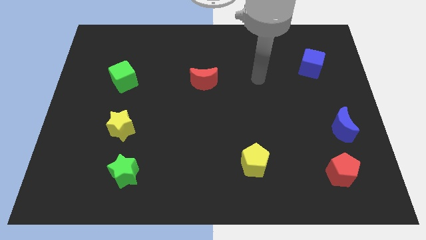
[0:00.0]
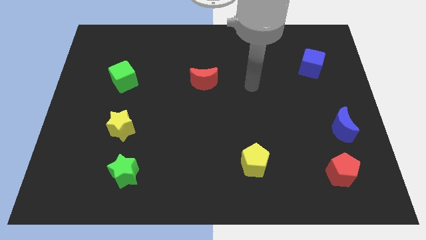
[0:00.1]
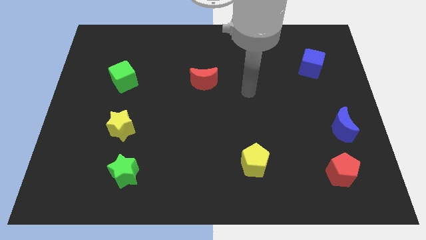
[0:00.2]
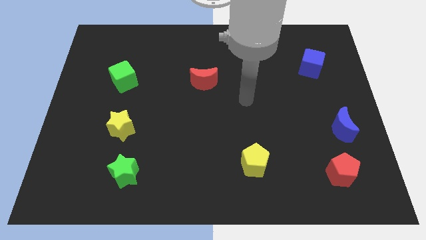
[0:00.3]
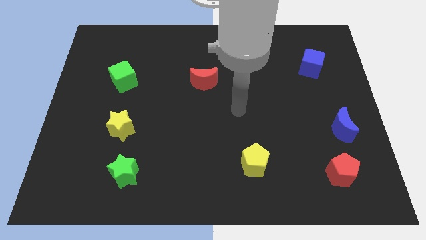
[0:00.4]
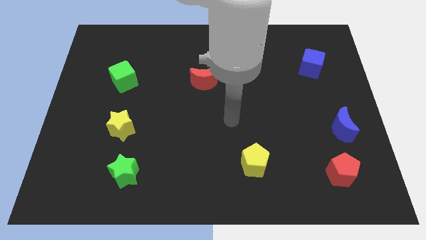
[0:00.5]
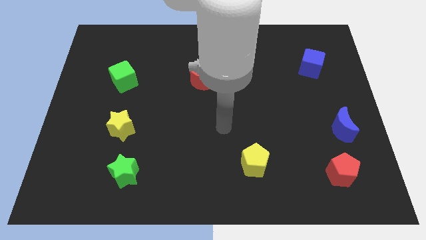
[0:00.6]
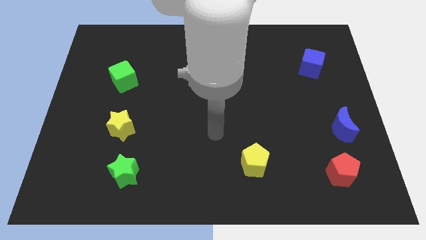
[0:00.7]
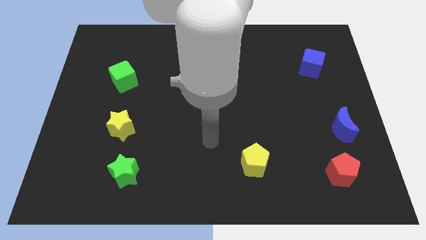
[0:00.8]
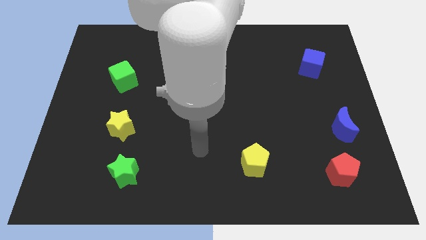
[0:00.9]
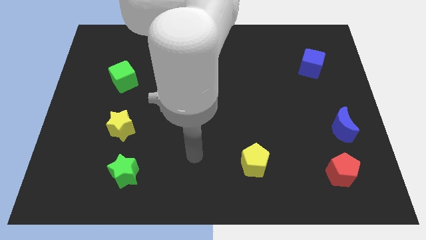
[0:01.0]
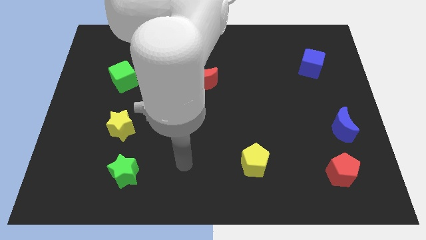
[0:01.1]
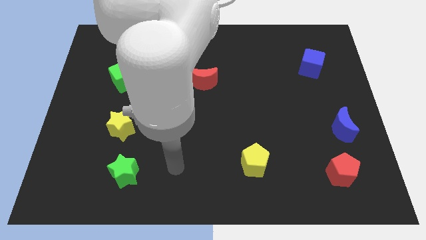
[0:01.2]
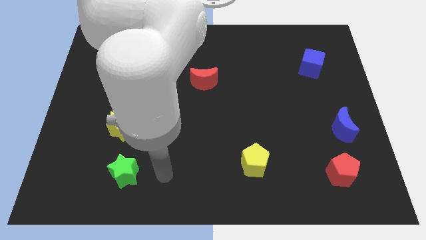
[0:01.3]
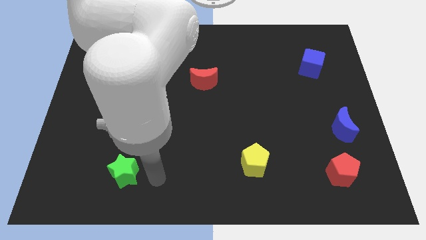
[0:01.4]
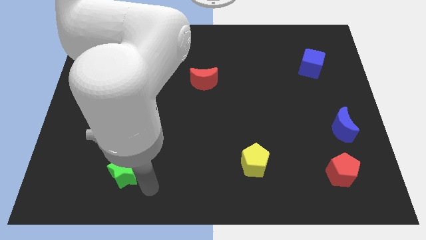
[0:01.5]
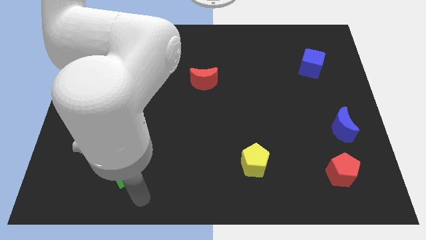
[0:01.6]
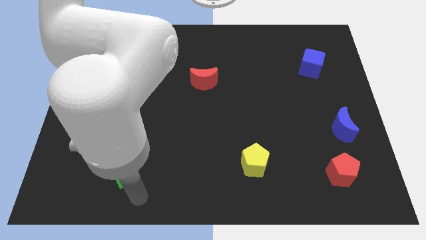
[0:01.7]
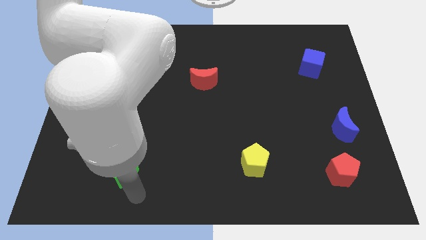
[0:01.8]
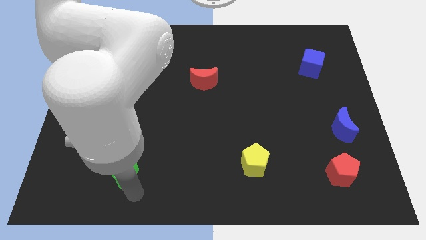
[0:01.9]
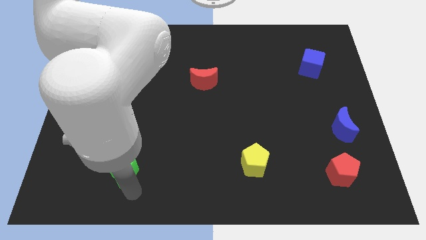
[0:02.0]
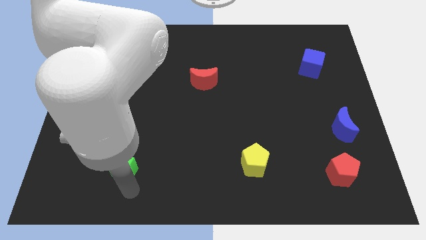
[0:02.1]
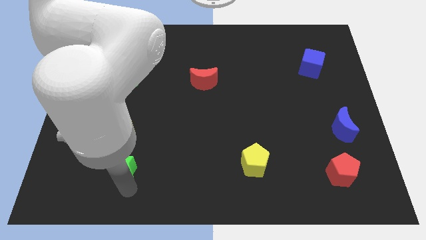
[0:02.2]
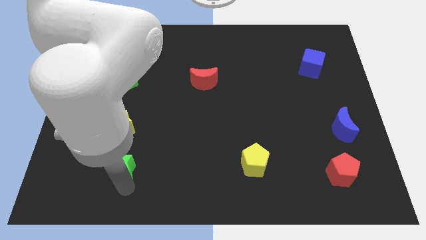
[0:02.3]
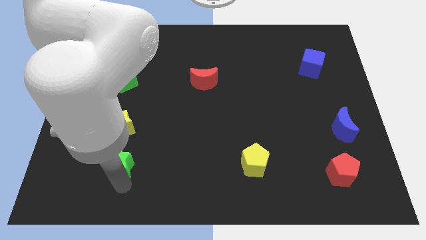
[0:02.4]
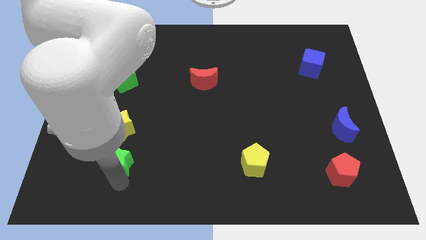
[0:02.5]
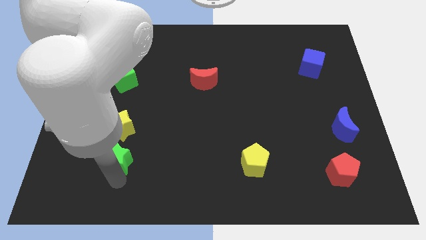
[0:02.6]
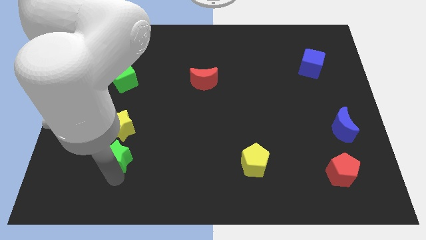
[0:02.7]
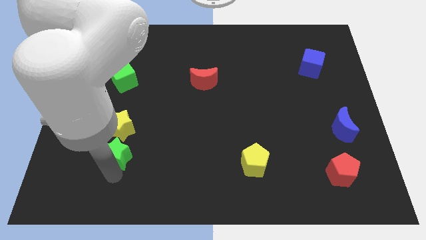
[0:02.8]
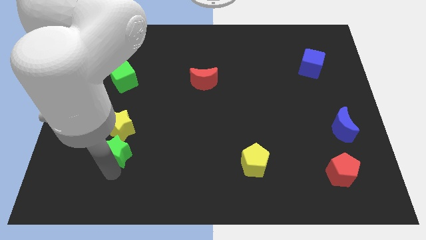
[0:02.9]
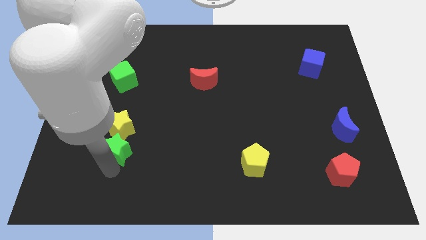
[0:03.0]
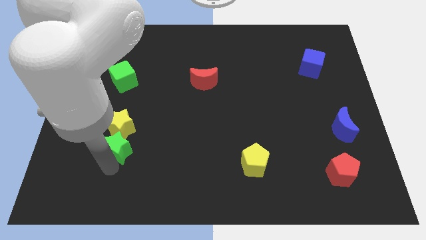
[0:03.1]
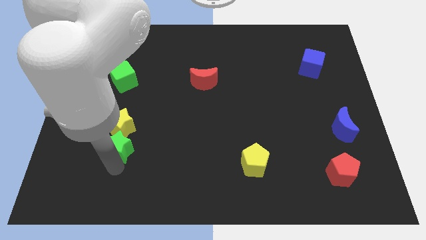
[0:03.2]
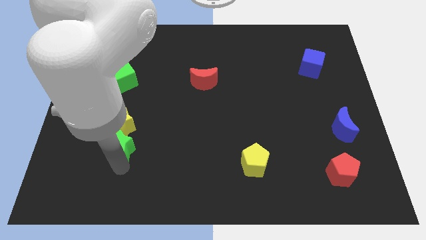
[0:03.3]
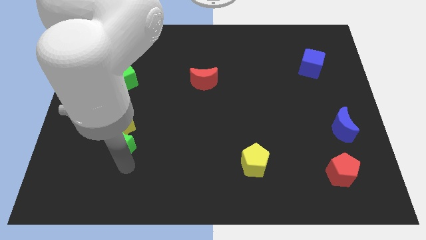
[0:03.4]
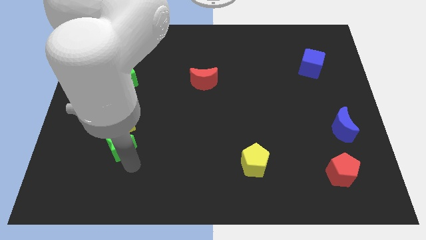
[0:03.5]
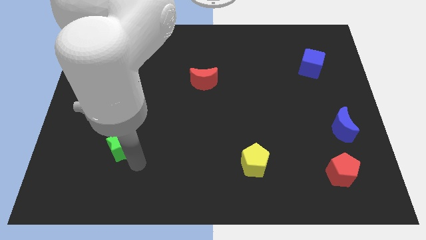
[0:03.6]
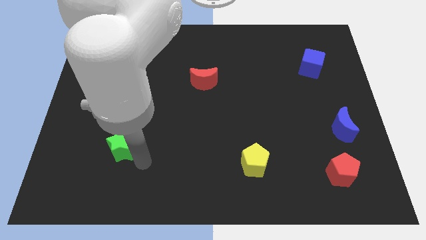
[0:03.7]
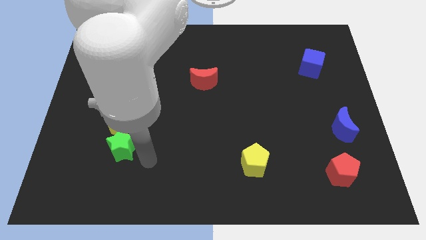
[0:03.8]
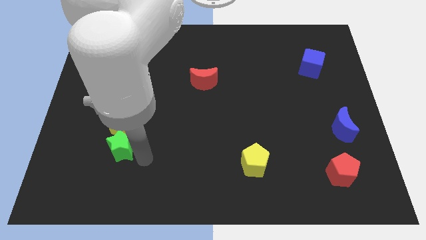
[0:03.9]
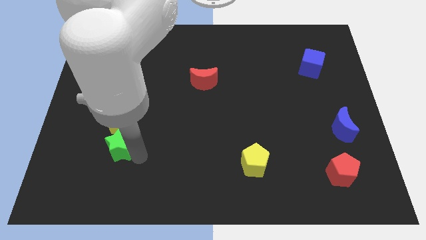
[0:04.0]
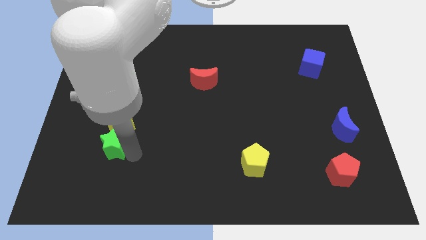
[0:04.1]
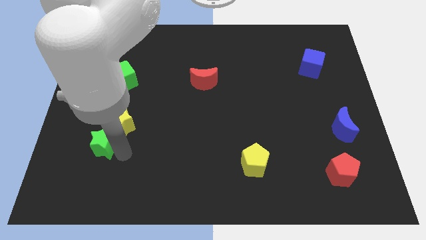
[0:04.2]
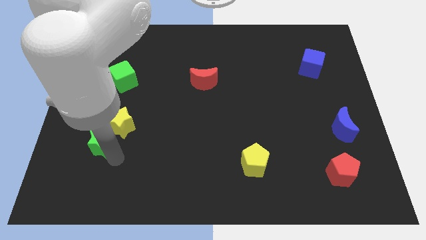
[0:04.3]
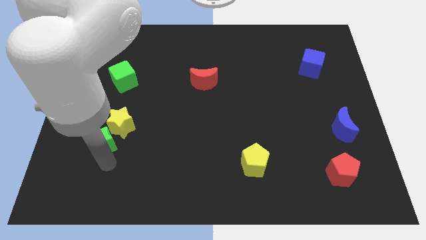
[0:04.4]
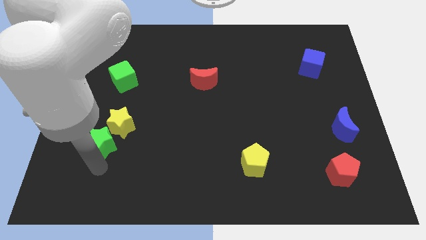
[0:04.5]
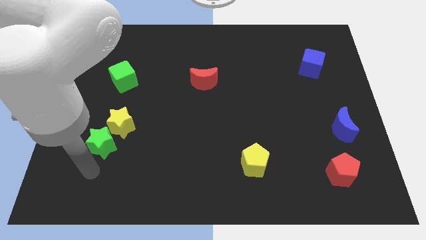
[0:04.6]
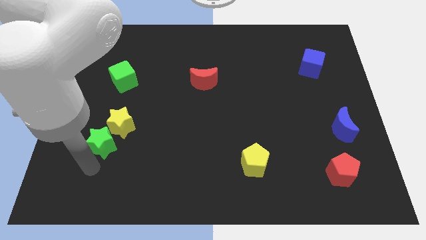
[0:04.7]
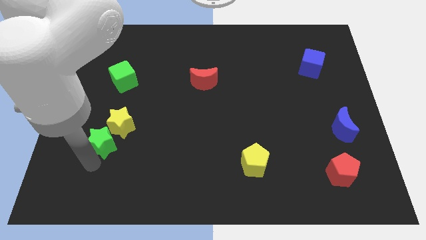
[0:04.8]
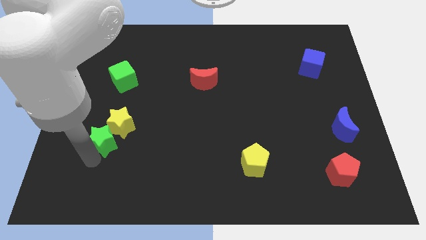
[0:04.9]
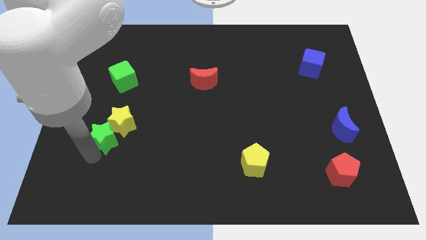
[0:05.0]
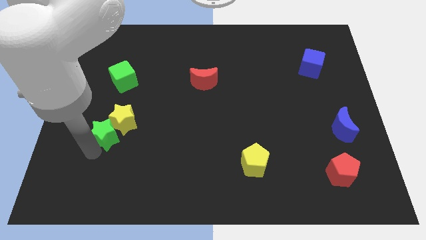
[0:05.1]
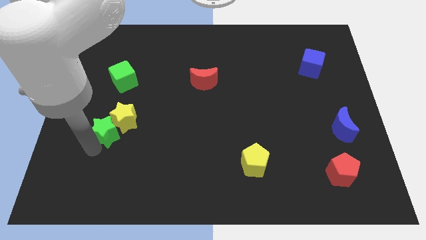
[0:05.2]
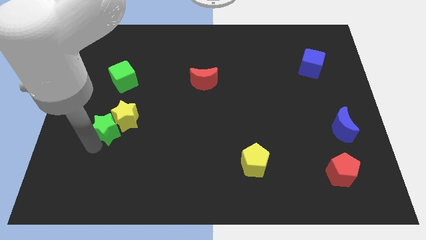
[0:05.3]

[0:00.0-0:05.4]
slide the green star below the green cube

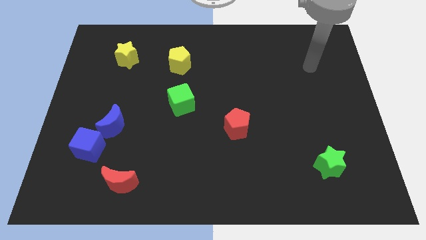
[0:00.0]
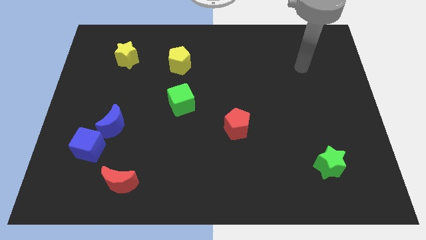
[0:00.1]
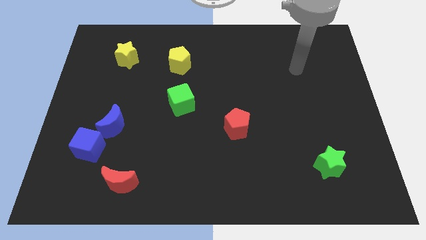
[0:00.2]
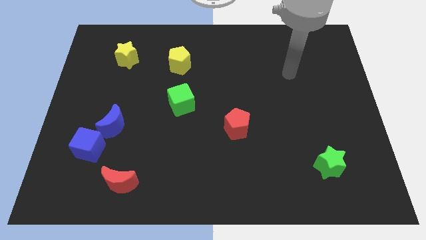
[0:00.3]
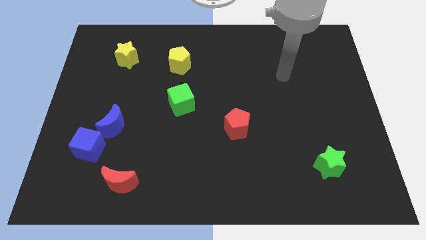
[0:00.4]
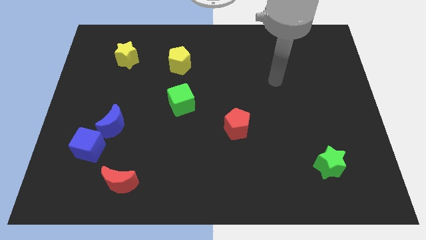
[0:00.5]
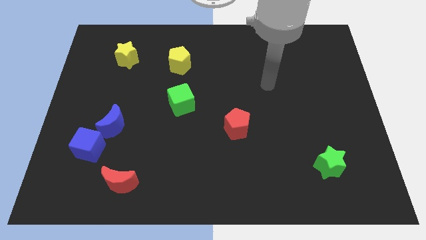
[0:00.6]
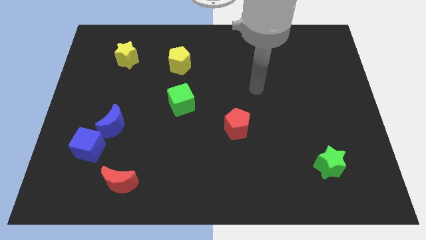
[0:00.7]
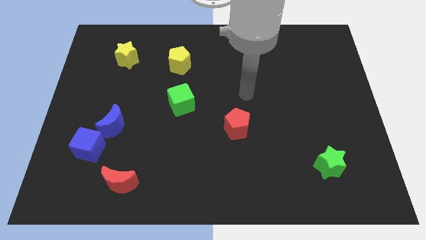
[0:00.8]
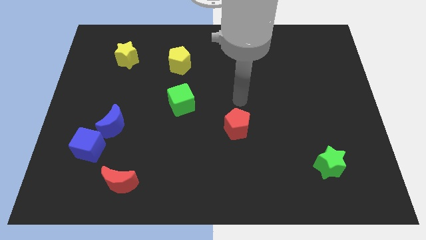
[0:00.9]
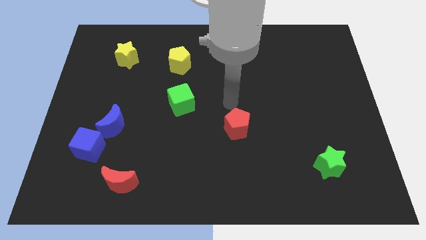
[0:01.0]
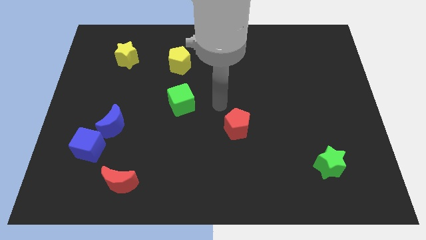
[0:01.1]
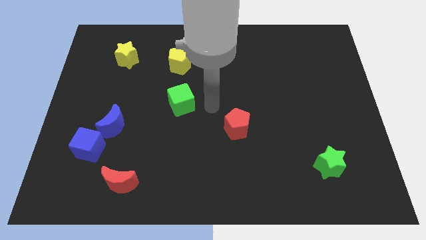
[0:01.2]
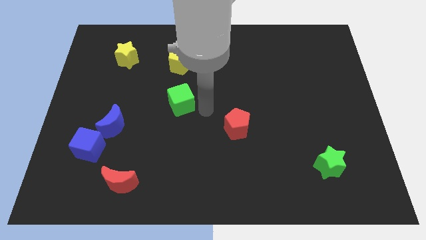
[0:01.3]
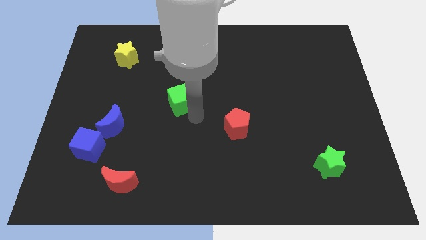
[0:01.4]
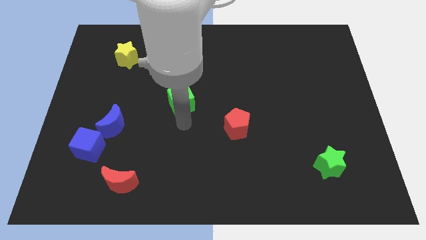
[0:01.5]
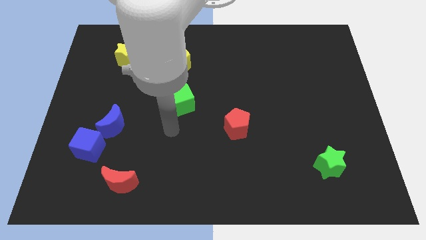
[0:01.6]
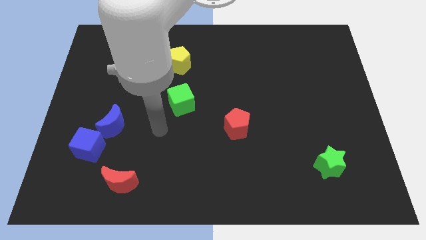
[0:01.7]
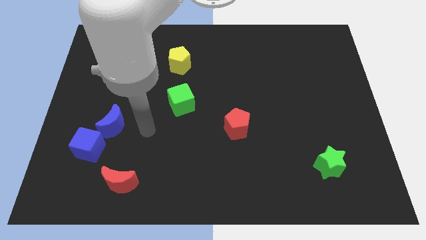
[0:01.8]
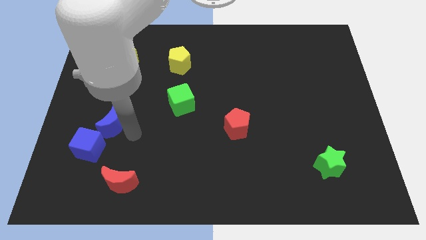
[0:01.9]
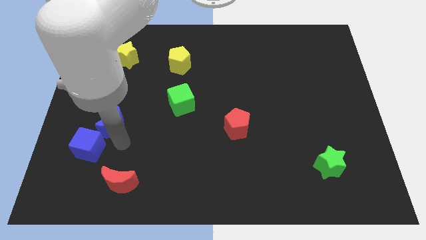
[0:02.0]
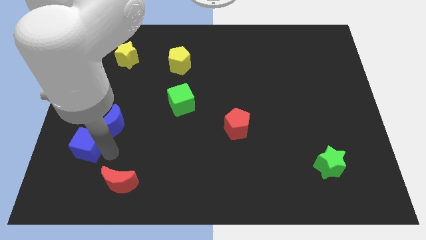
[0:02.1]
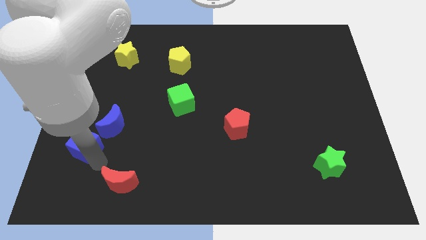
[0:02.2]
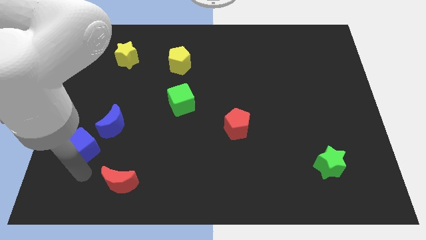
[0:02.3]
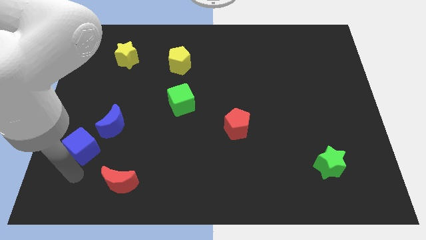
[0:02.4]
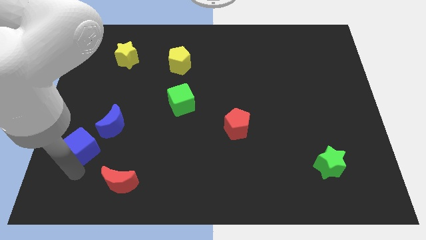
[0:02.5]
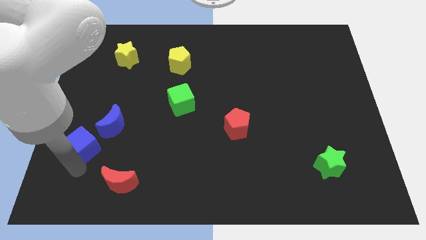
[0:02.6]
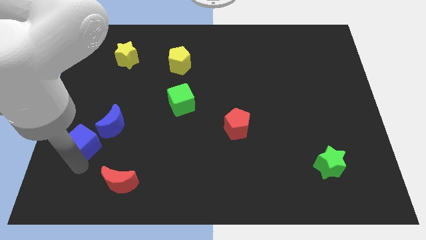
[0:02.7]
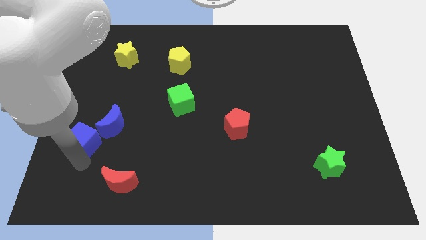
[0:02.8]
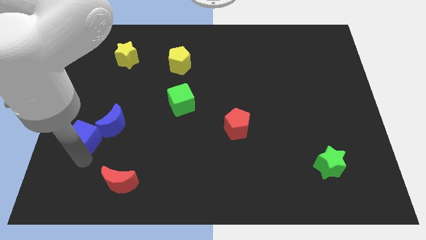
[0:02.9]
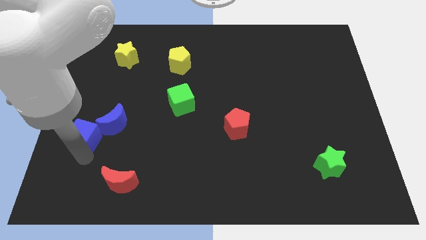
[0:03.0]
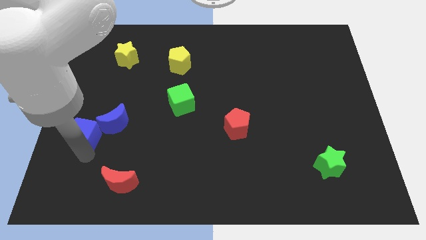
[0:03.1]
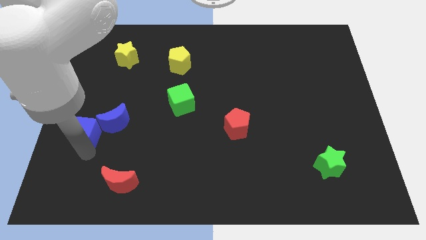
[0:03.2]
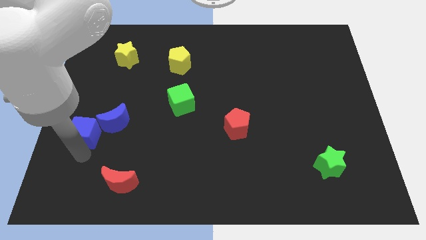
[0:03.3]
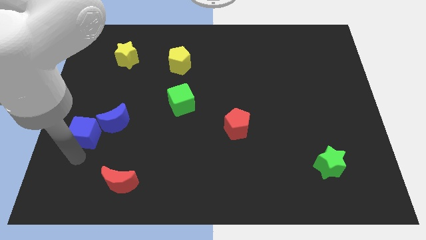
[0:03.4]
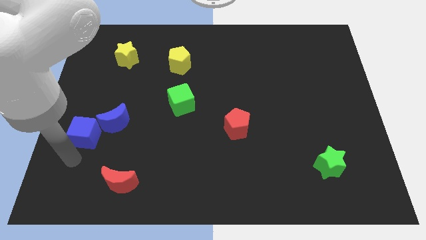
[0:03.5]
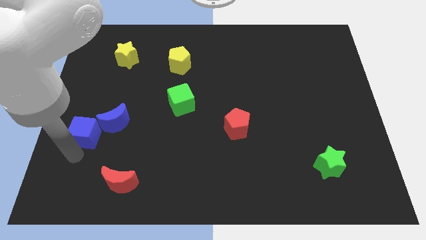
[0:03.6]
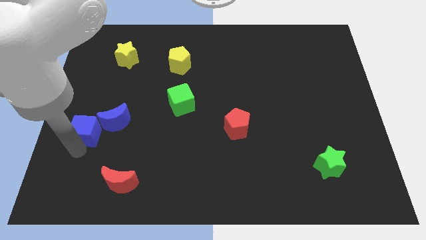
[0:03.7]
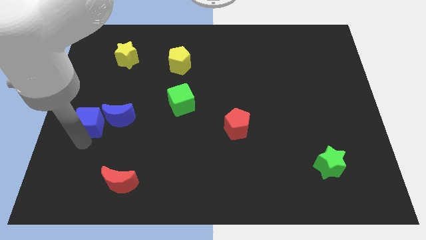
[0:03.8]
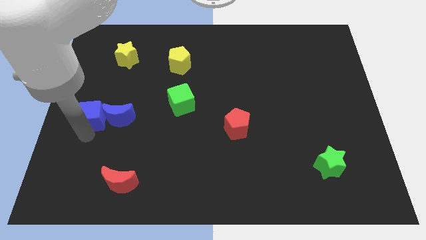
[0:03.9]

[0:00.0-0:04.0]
put the blue cube to the top left of the blue moon
